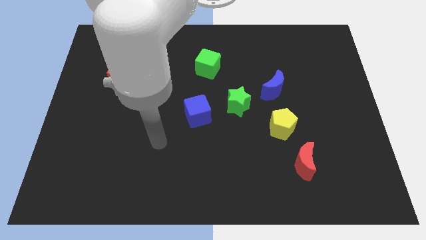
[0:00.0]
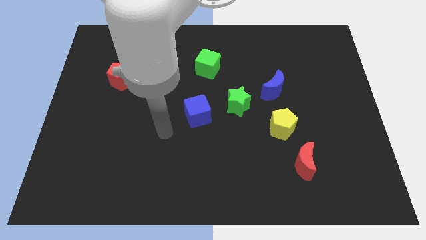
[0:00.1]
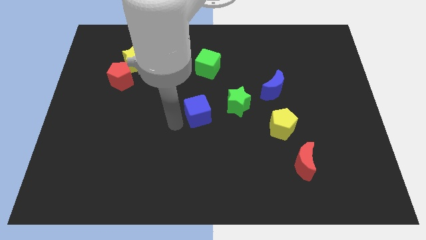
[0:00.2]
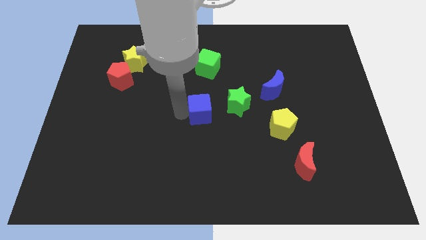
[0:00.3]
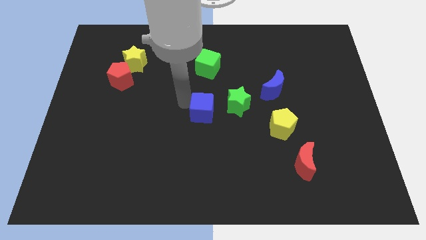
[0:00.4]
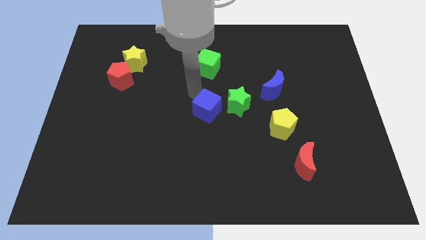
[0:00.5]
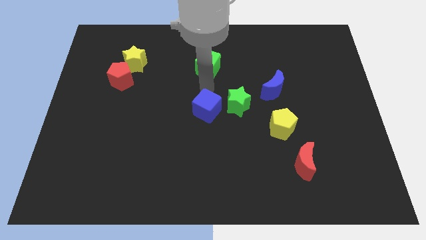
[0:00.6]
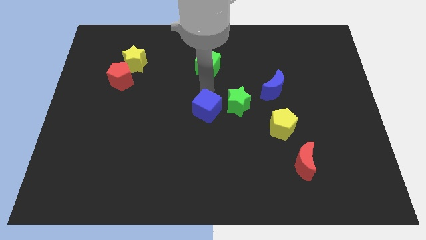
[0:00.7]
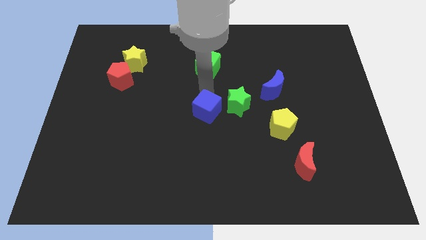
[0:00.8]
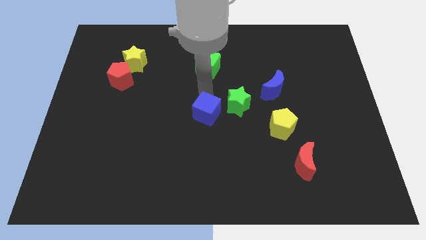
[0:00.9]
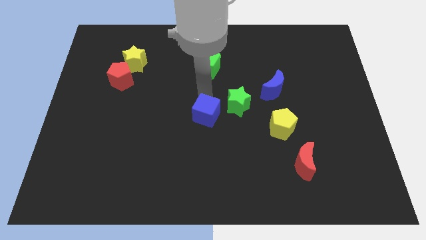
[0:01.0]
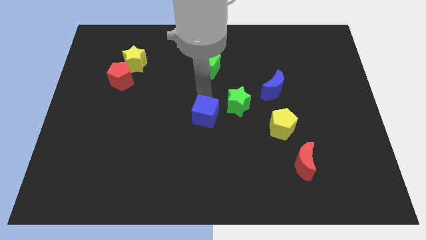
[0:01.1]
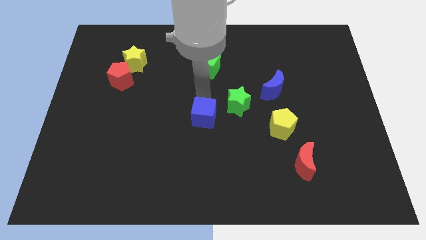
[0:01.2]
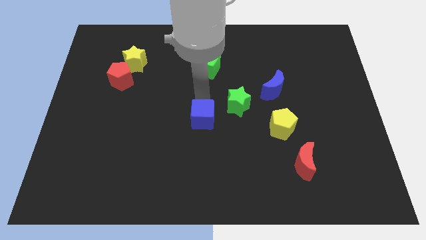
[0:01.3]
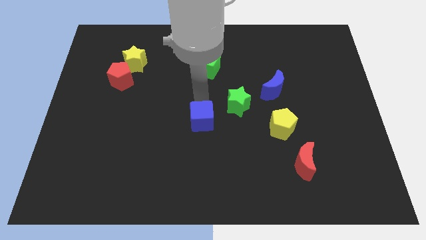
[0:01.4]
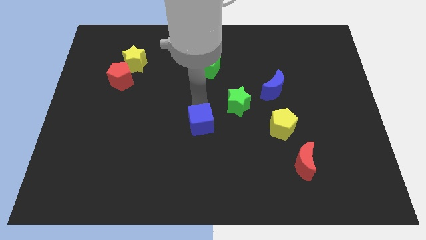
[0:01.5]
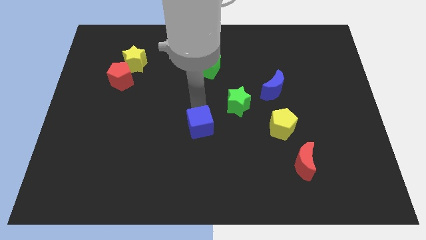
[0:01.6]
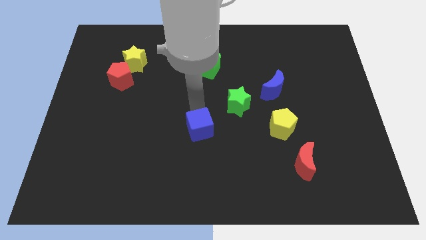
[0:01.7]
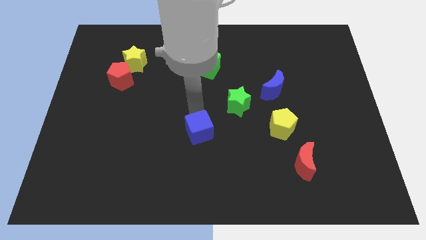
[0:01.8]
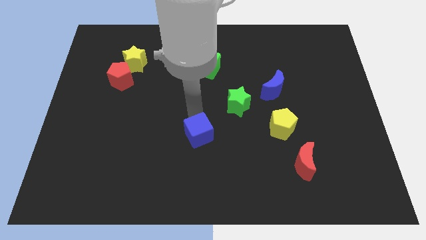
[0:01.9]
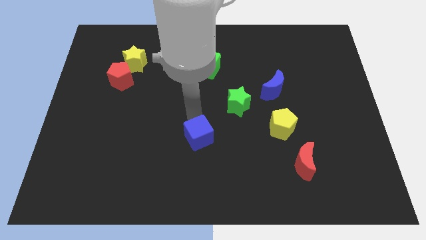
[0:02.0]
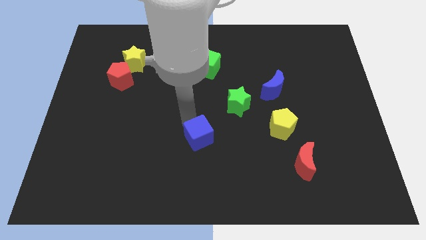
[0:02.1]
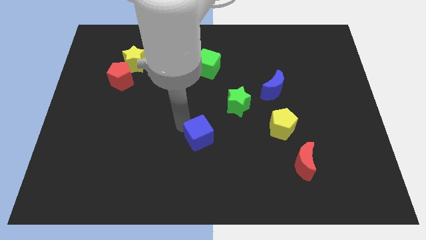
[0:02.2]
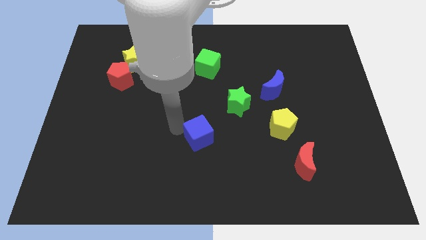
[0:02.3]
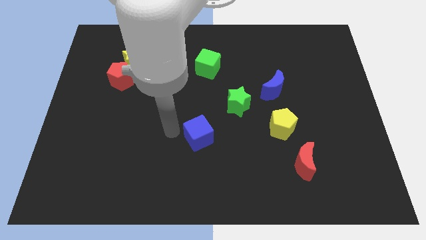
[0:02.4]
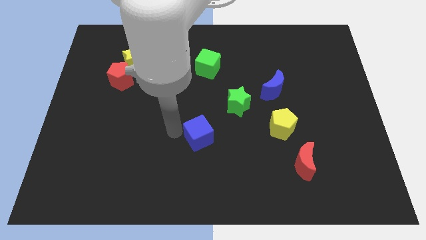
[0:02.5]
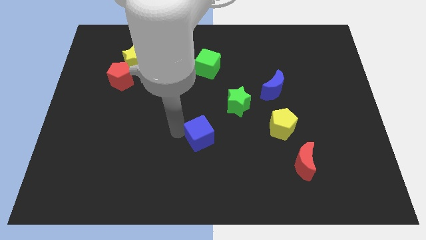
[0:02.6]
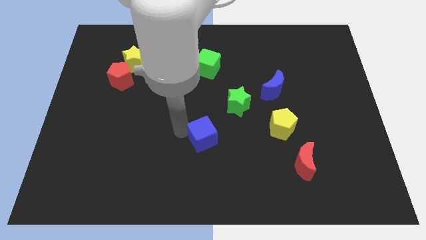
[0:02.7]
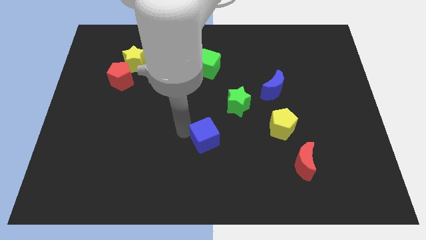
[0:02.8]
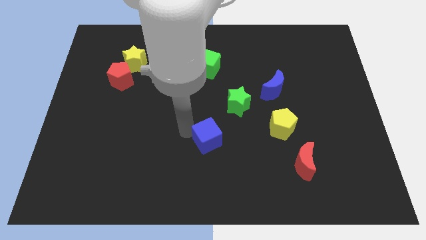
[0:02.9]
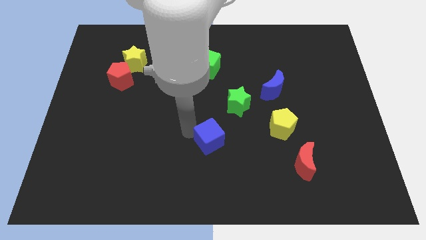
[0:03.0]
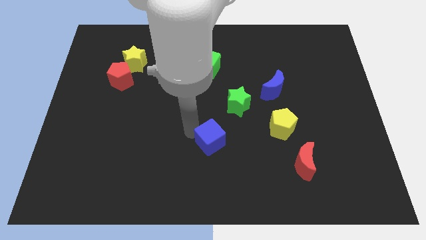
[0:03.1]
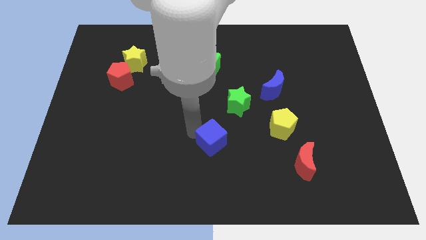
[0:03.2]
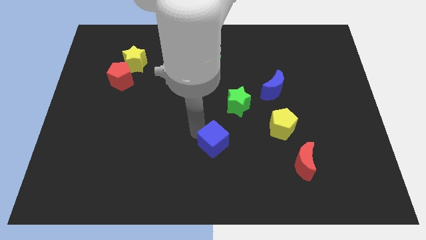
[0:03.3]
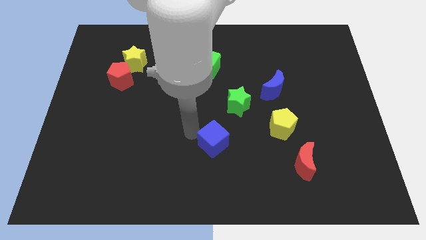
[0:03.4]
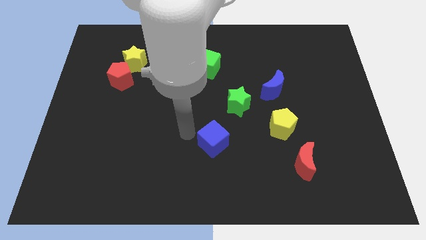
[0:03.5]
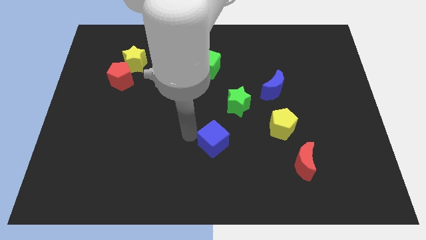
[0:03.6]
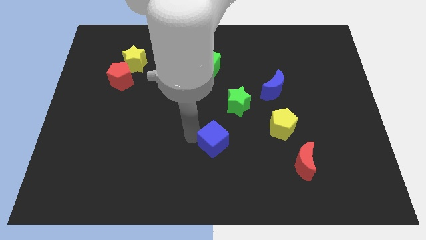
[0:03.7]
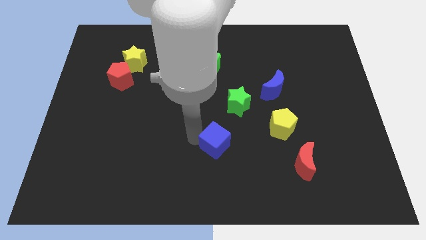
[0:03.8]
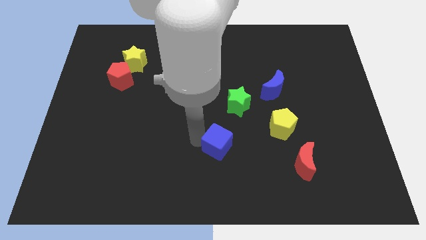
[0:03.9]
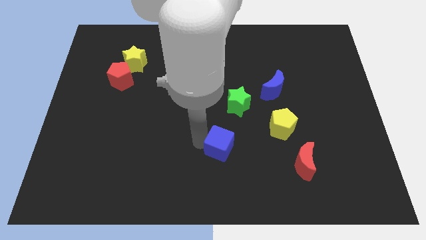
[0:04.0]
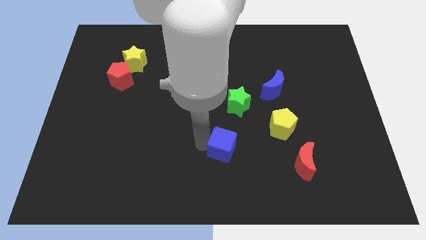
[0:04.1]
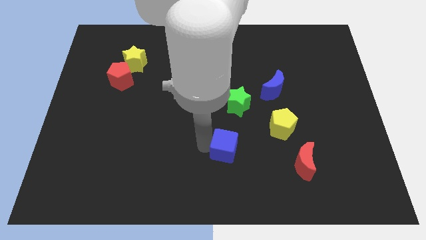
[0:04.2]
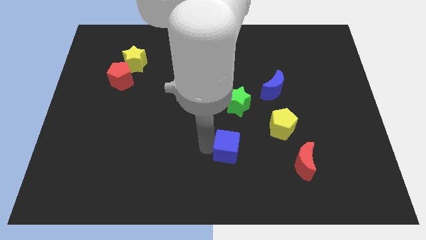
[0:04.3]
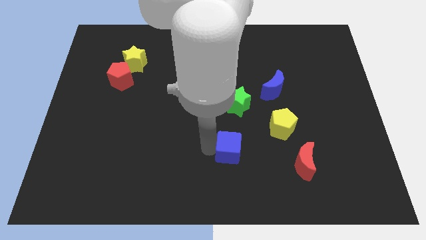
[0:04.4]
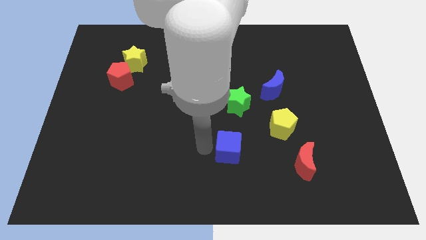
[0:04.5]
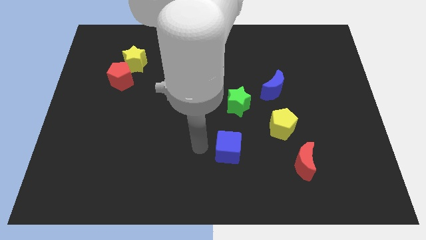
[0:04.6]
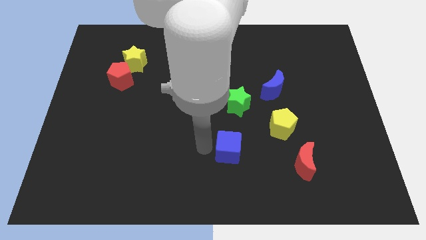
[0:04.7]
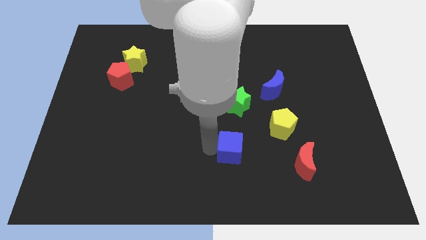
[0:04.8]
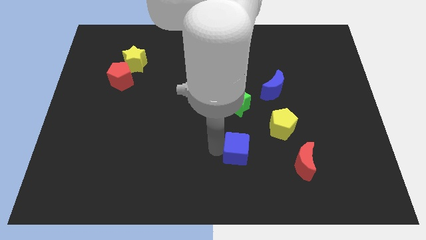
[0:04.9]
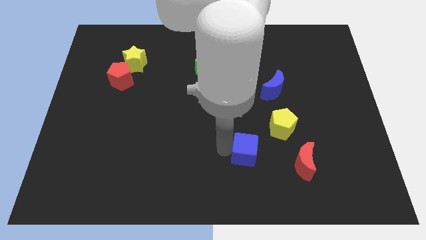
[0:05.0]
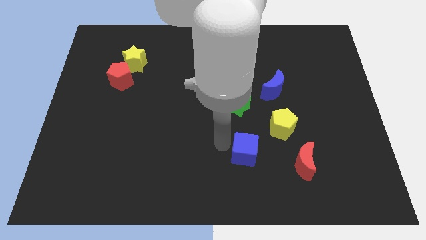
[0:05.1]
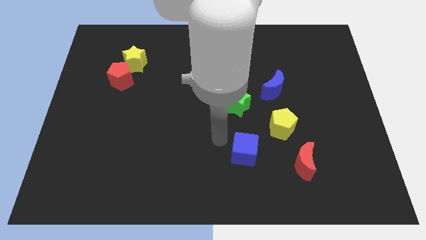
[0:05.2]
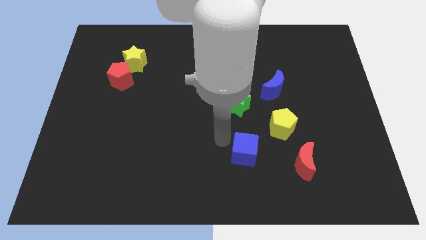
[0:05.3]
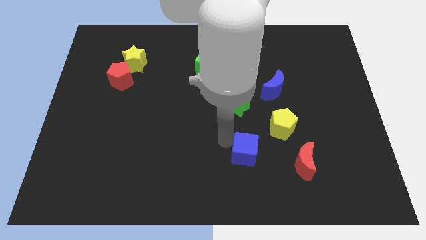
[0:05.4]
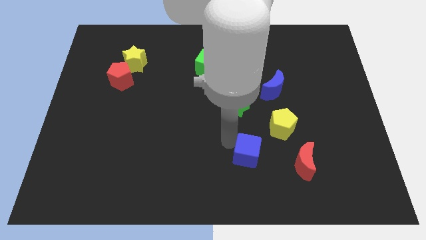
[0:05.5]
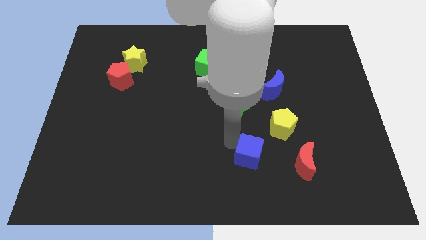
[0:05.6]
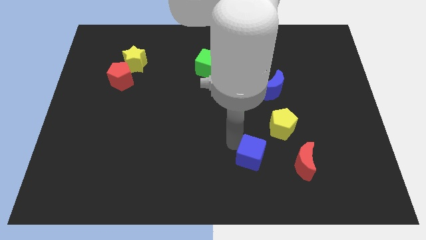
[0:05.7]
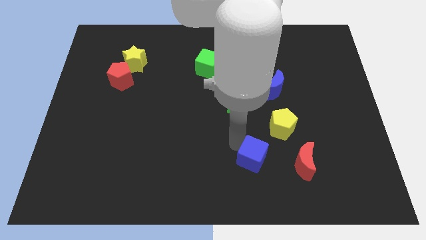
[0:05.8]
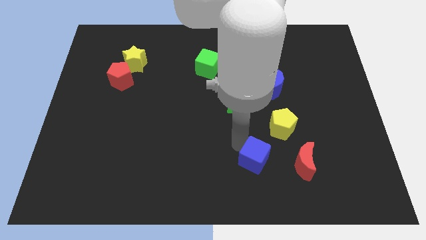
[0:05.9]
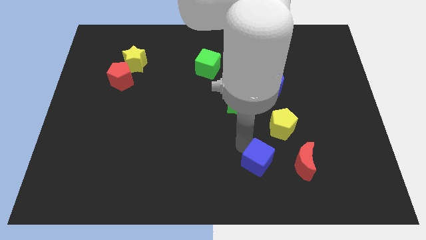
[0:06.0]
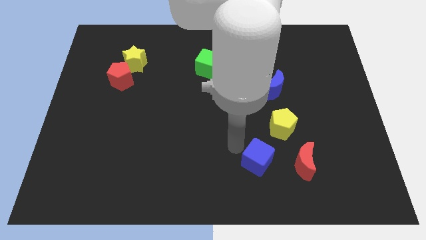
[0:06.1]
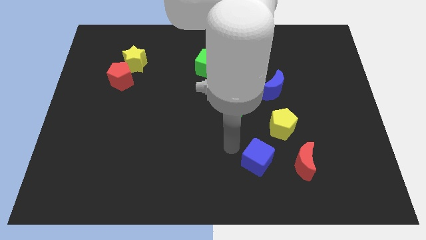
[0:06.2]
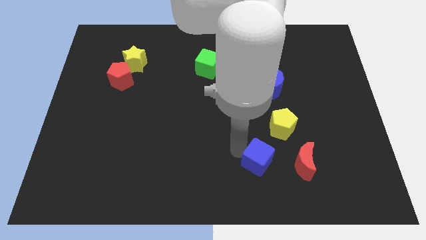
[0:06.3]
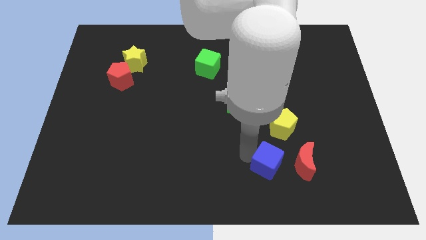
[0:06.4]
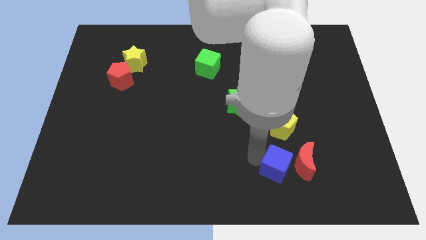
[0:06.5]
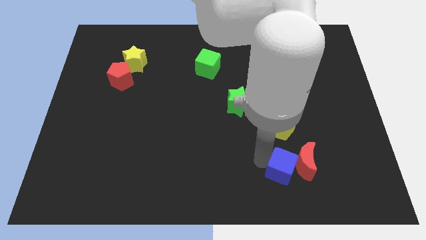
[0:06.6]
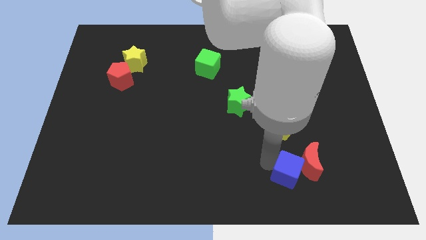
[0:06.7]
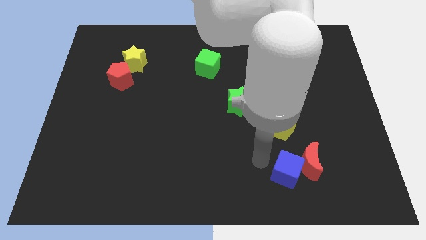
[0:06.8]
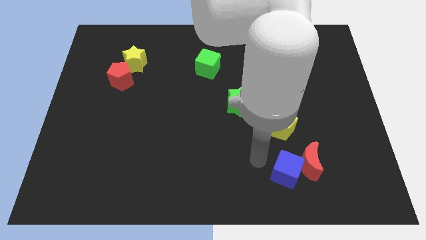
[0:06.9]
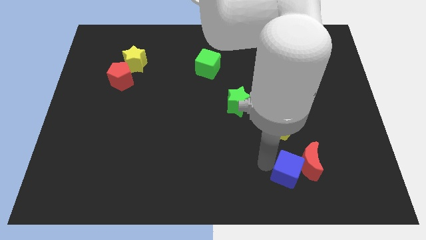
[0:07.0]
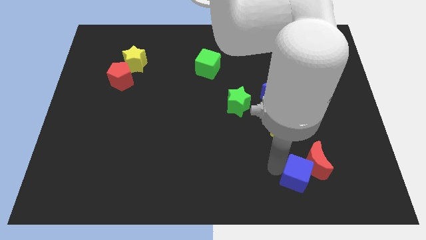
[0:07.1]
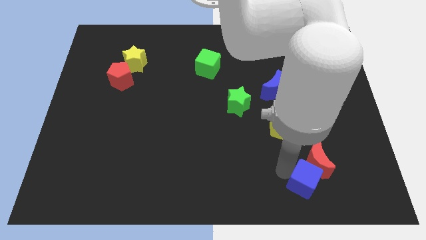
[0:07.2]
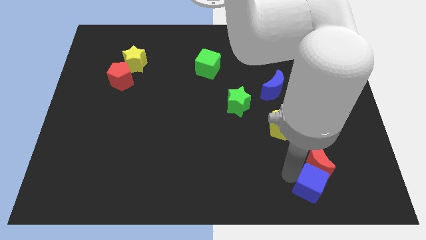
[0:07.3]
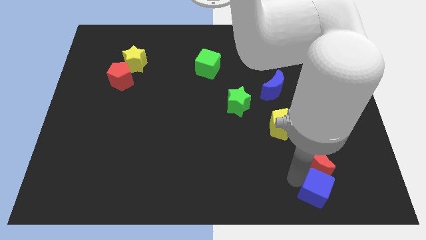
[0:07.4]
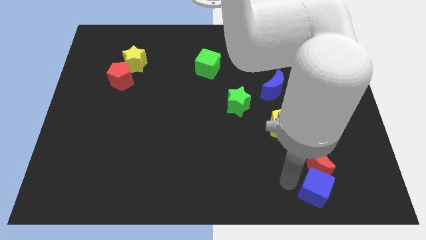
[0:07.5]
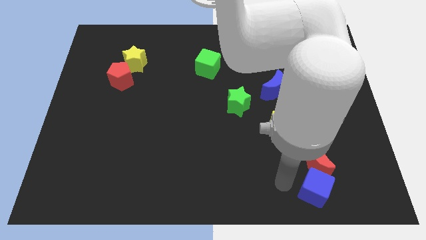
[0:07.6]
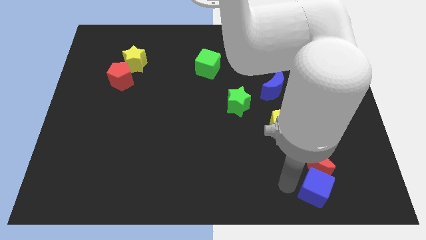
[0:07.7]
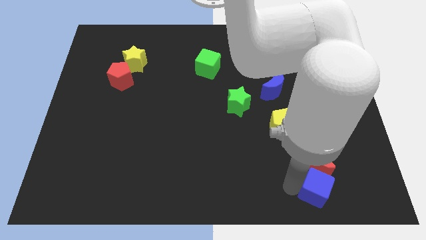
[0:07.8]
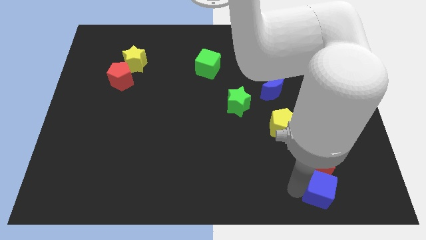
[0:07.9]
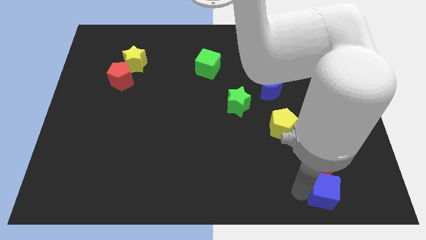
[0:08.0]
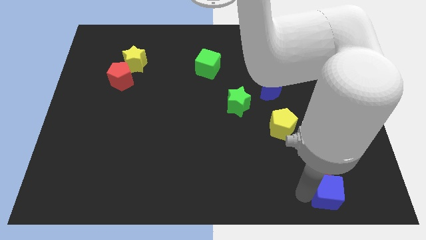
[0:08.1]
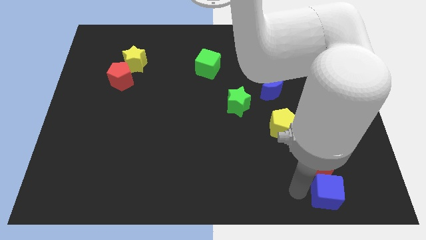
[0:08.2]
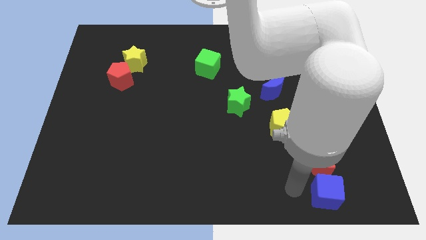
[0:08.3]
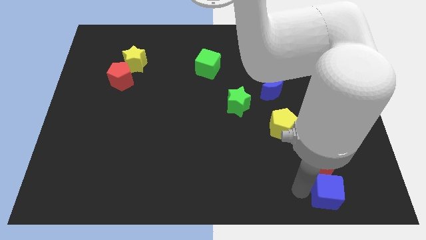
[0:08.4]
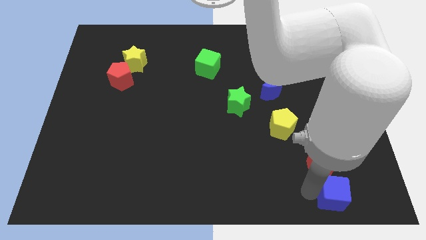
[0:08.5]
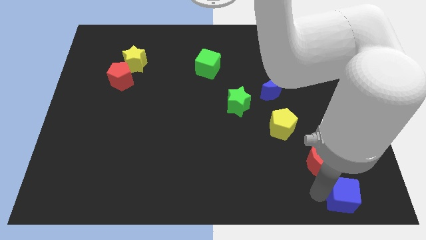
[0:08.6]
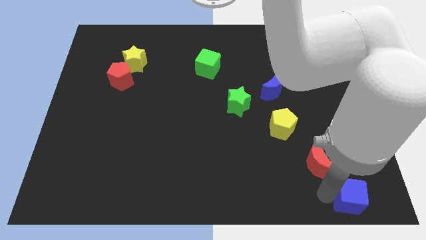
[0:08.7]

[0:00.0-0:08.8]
put the blue cube to the bottom right of the board
